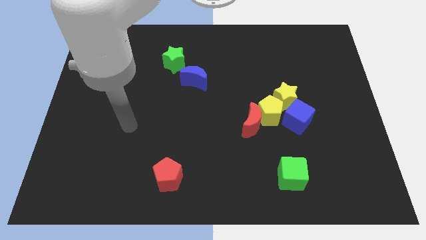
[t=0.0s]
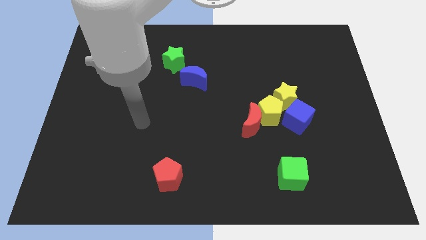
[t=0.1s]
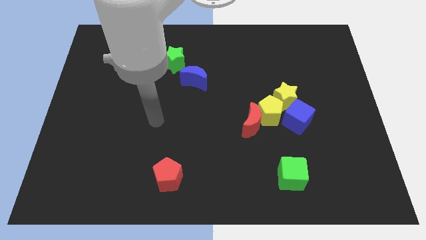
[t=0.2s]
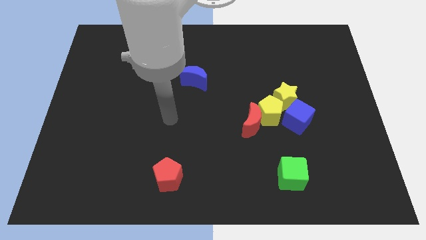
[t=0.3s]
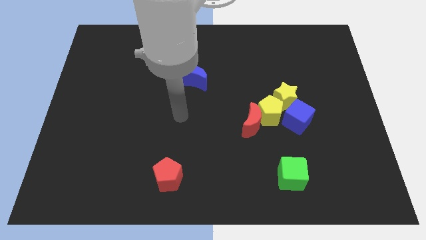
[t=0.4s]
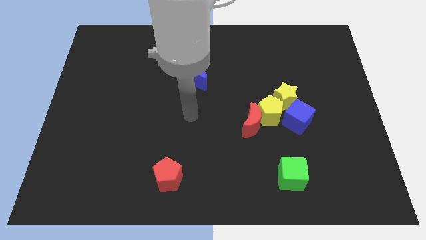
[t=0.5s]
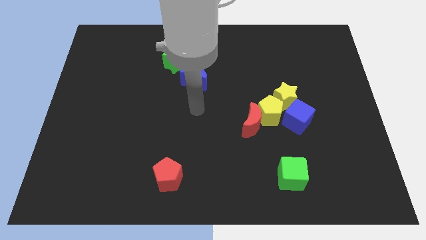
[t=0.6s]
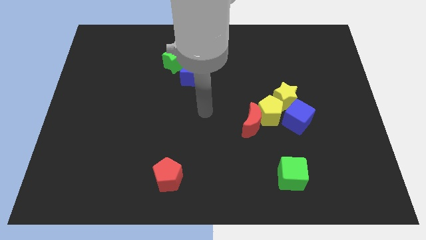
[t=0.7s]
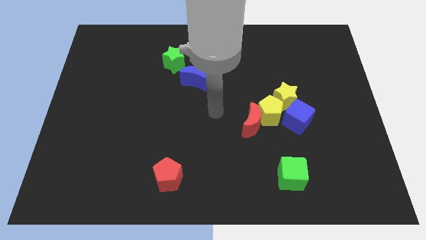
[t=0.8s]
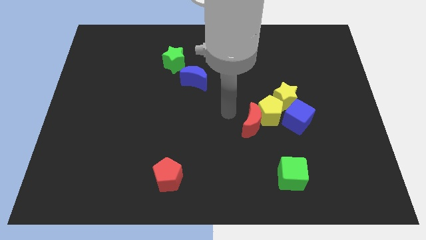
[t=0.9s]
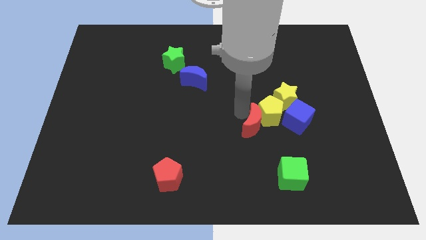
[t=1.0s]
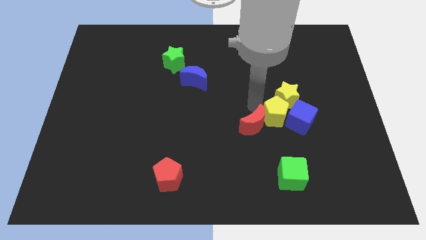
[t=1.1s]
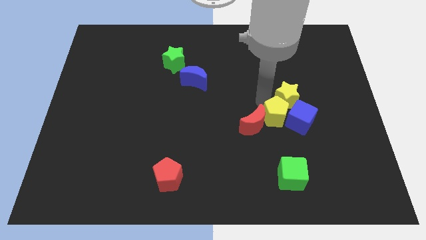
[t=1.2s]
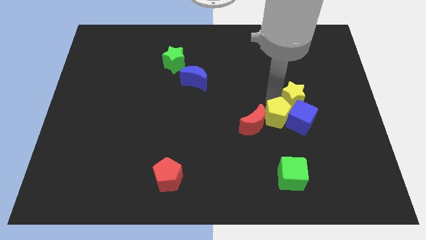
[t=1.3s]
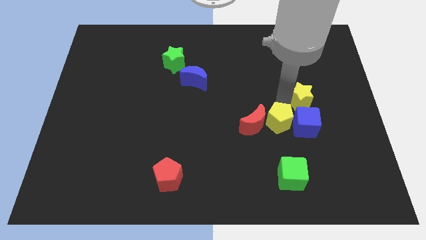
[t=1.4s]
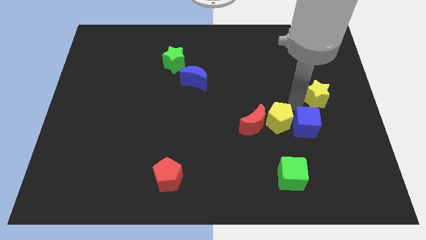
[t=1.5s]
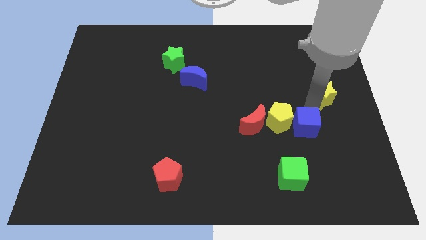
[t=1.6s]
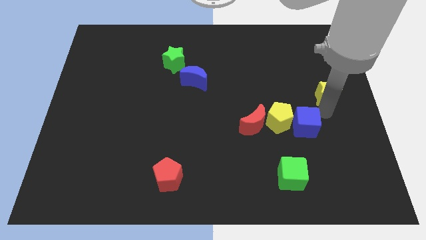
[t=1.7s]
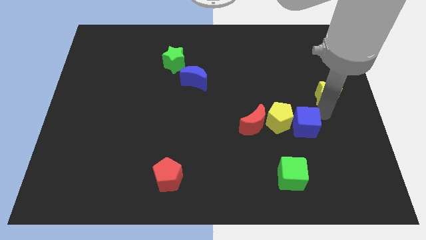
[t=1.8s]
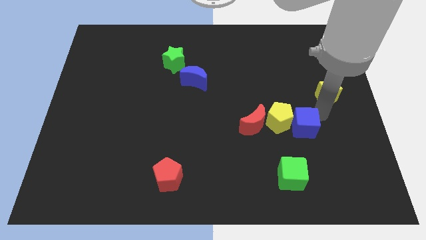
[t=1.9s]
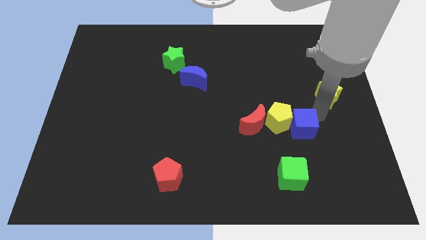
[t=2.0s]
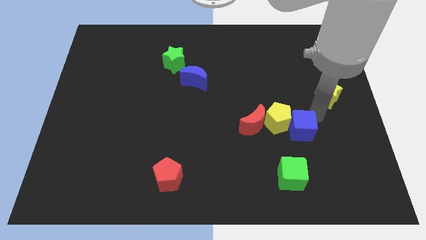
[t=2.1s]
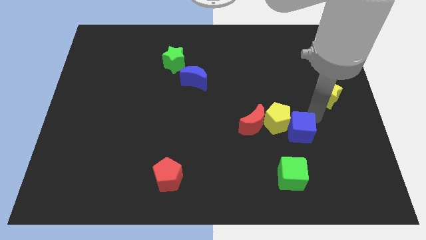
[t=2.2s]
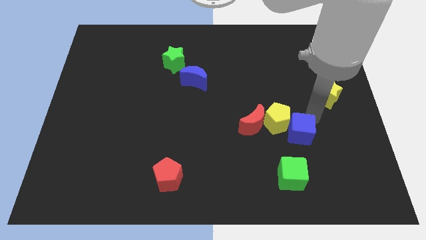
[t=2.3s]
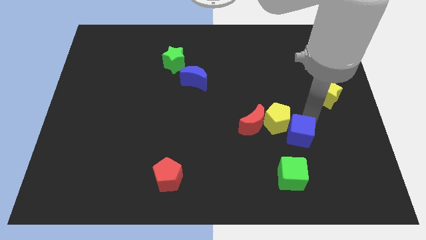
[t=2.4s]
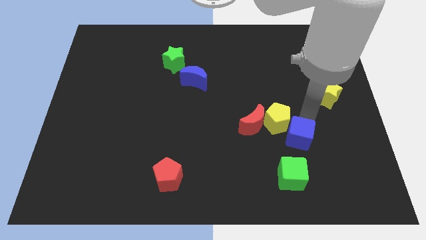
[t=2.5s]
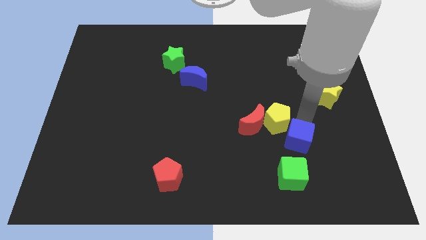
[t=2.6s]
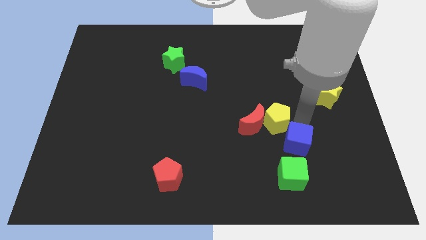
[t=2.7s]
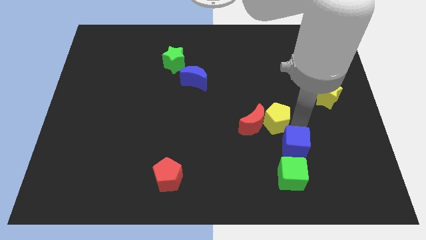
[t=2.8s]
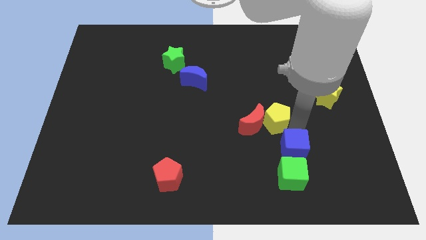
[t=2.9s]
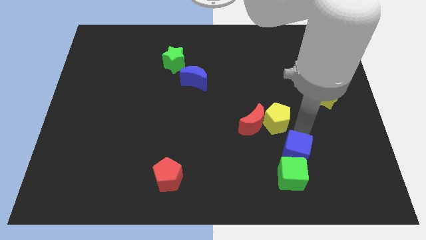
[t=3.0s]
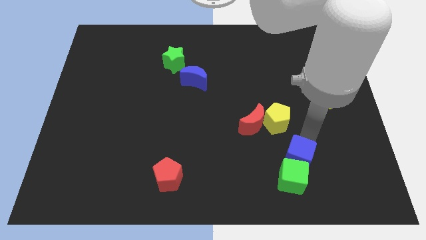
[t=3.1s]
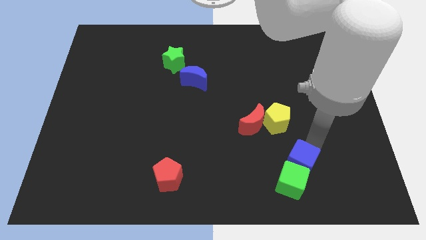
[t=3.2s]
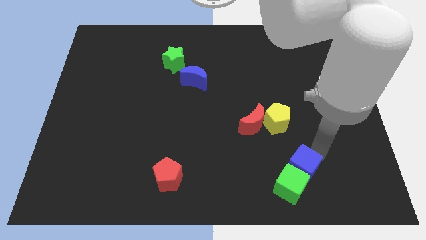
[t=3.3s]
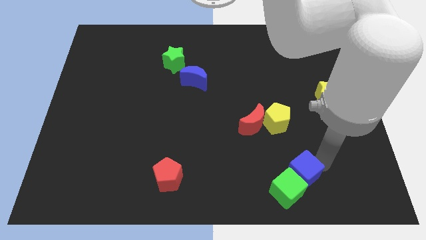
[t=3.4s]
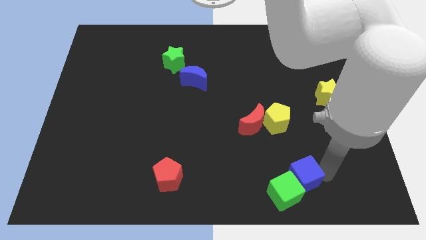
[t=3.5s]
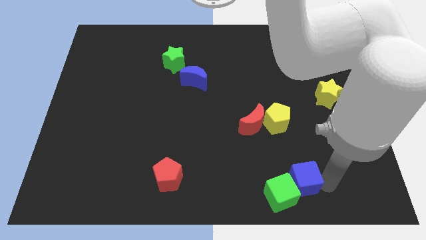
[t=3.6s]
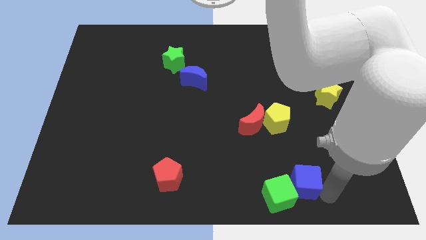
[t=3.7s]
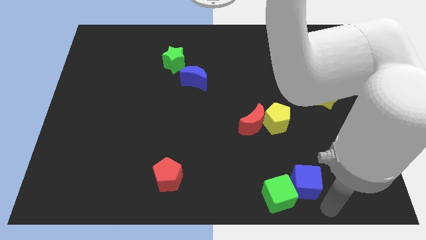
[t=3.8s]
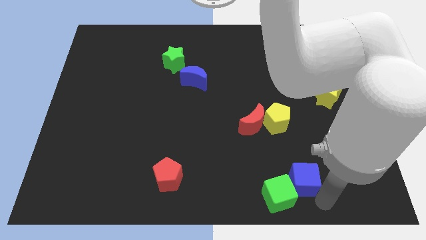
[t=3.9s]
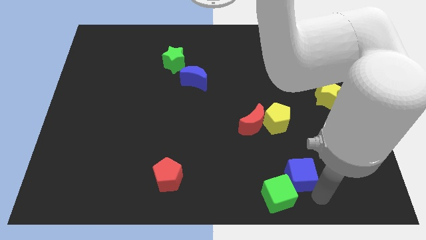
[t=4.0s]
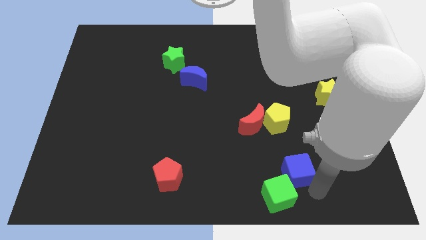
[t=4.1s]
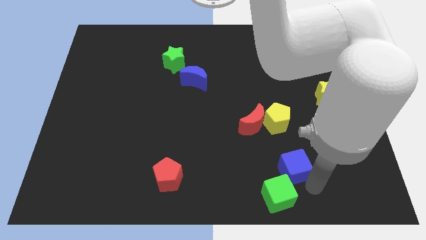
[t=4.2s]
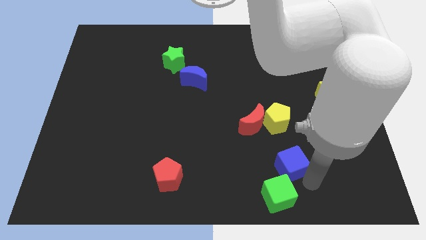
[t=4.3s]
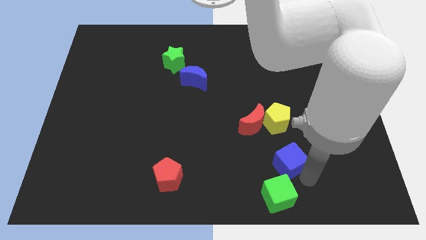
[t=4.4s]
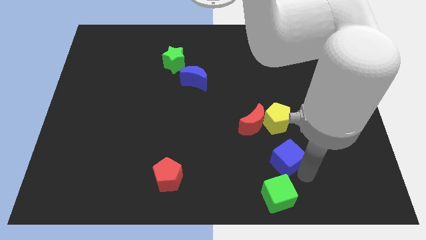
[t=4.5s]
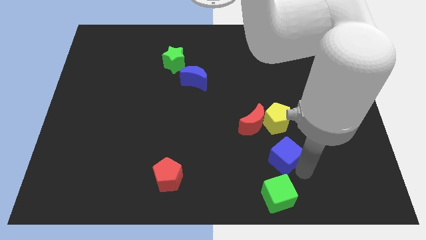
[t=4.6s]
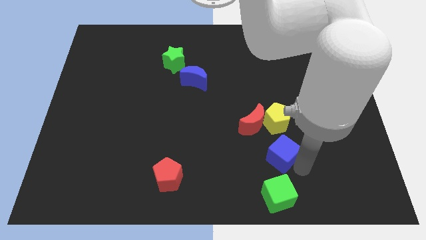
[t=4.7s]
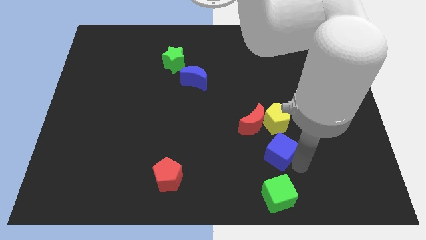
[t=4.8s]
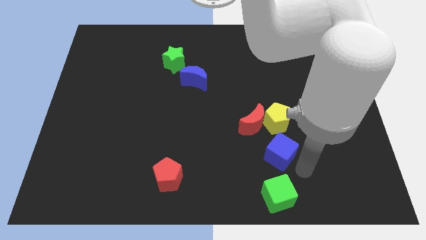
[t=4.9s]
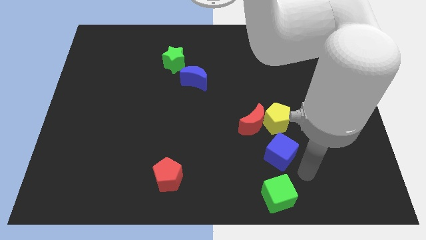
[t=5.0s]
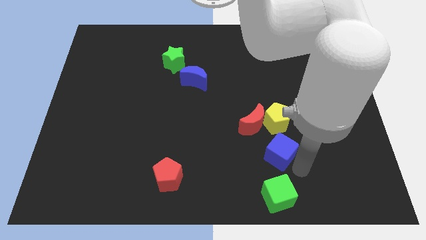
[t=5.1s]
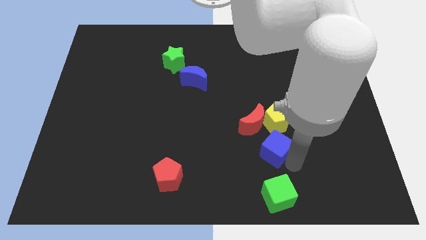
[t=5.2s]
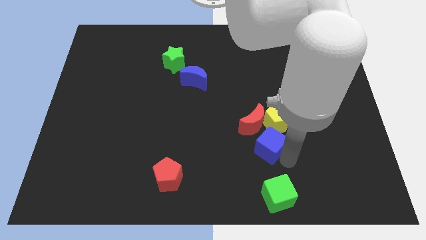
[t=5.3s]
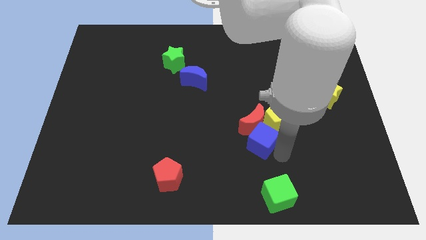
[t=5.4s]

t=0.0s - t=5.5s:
push the blue cube left slightly

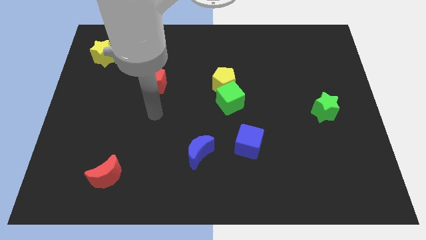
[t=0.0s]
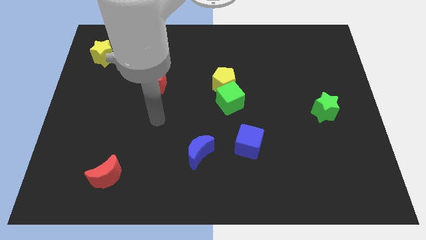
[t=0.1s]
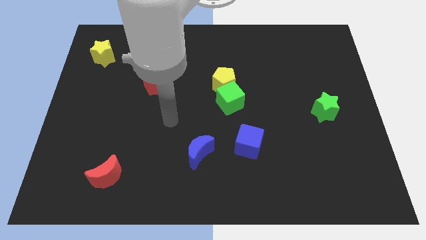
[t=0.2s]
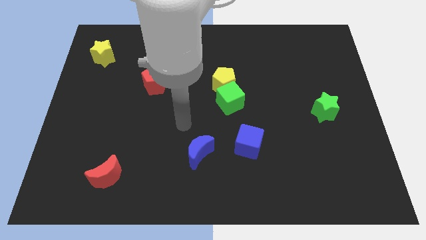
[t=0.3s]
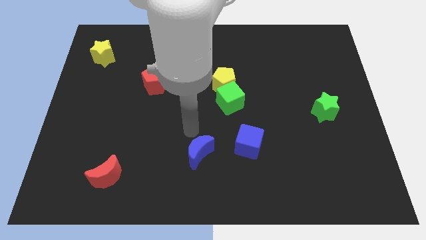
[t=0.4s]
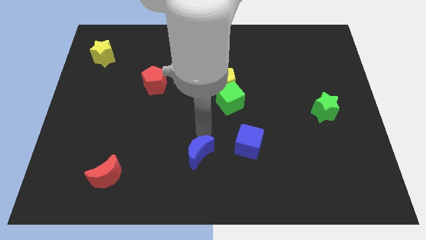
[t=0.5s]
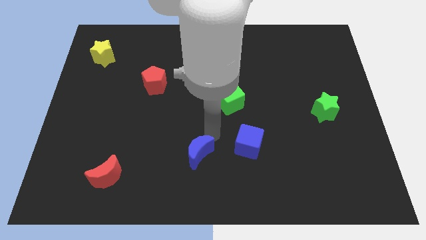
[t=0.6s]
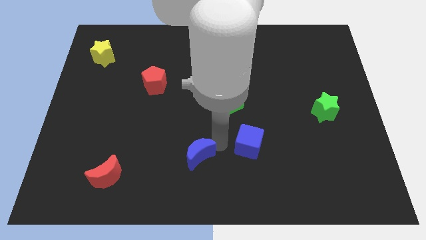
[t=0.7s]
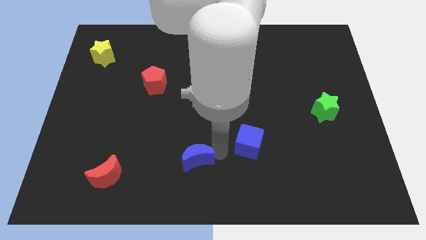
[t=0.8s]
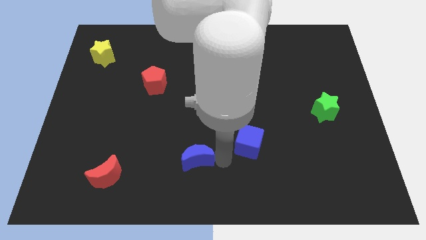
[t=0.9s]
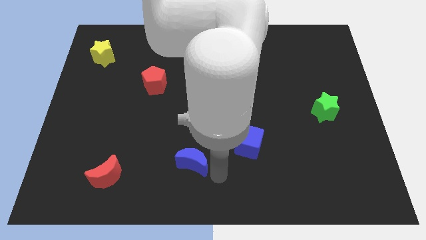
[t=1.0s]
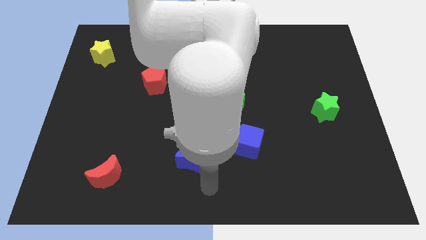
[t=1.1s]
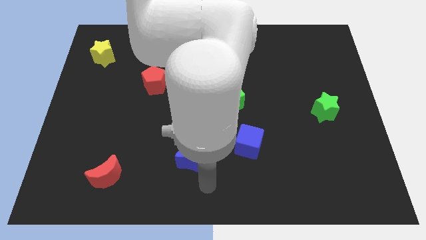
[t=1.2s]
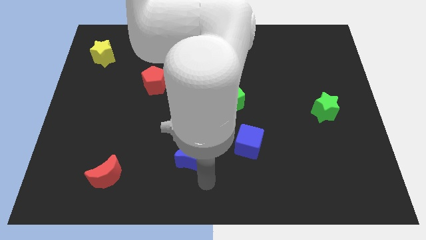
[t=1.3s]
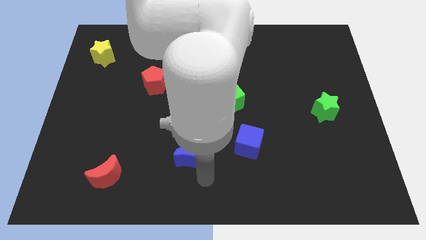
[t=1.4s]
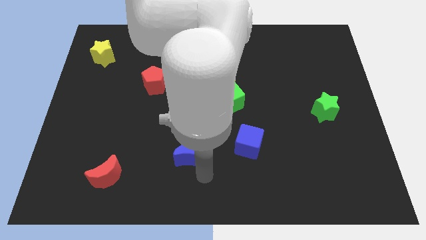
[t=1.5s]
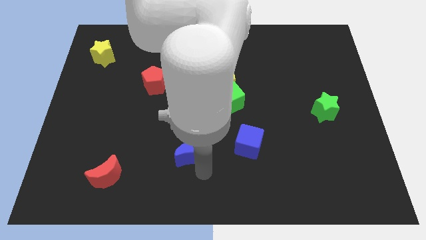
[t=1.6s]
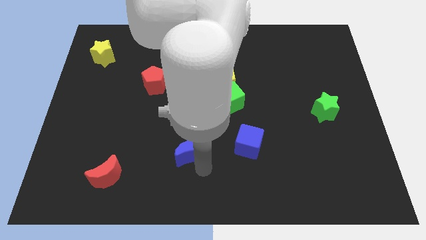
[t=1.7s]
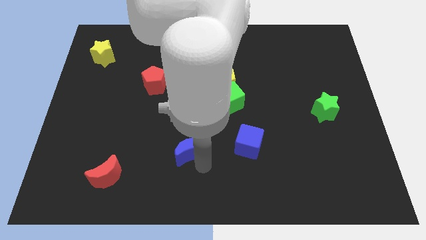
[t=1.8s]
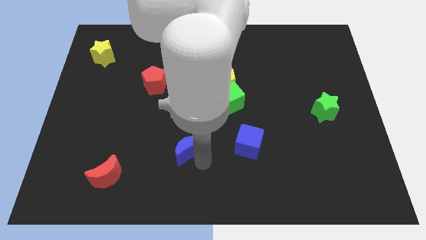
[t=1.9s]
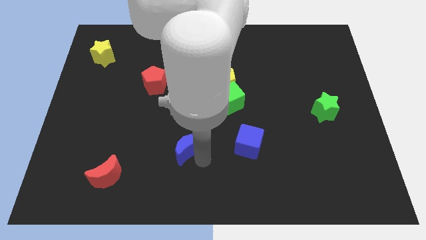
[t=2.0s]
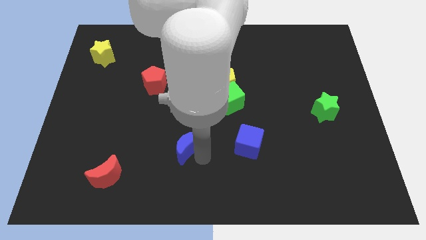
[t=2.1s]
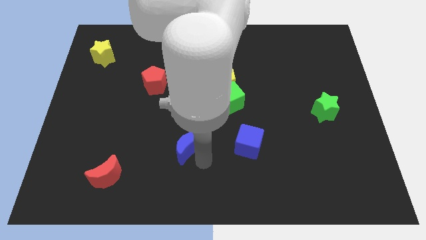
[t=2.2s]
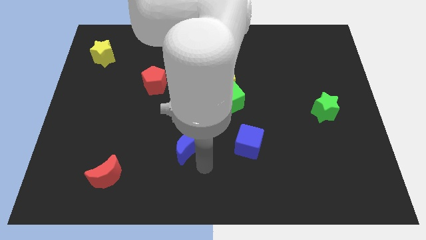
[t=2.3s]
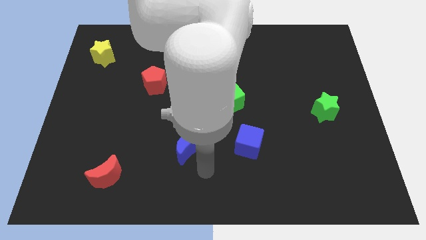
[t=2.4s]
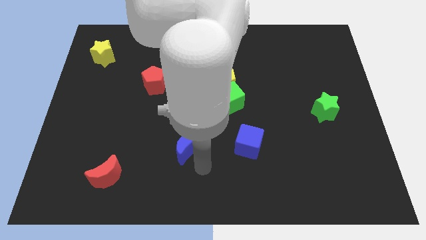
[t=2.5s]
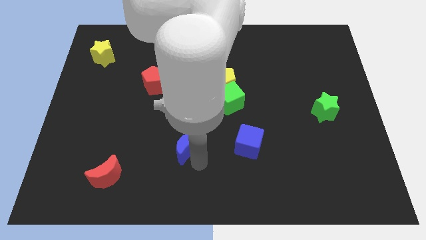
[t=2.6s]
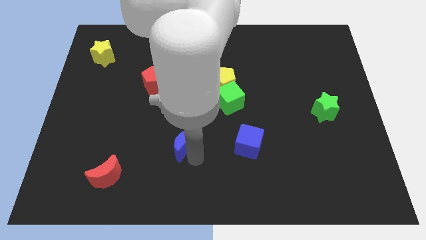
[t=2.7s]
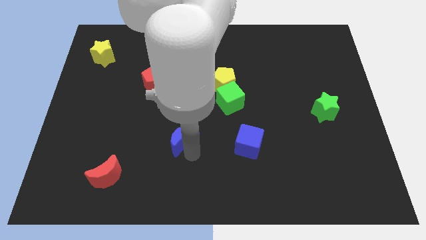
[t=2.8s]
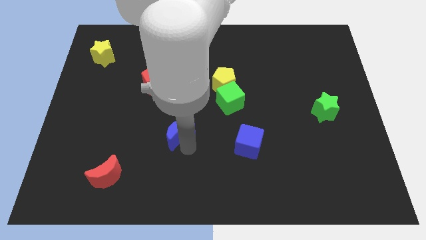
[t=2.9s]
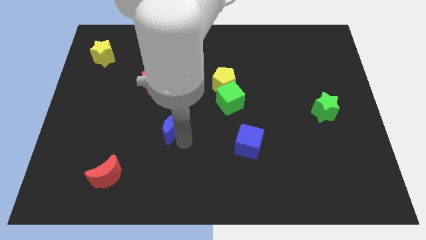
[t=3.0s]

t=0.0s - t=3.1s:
push the blue moon a little up and to the left
